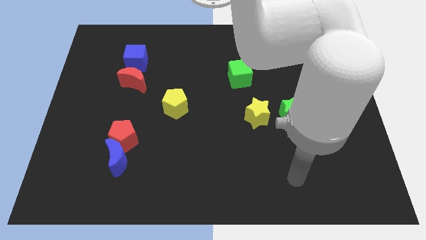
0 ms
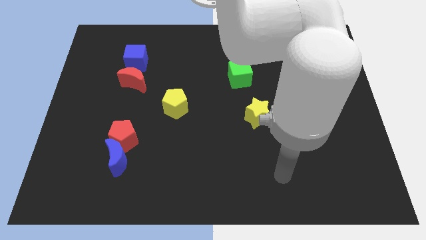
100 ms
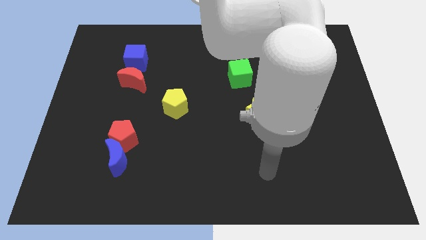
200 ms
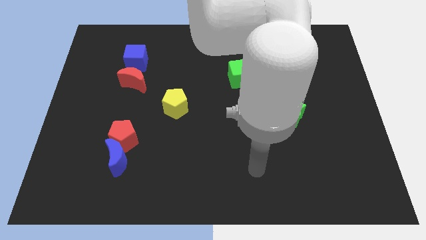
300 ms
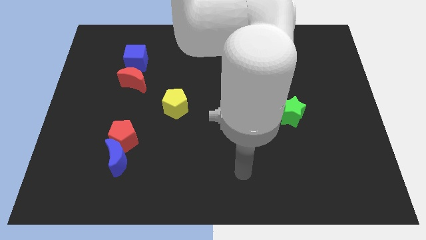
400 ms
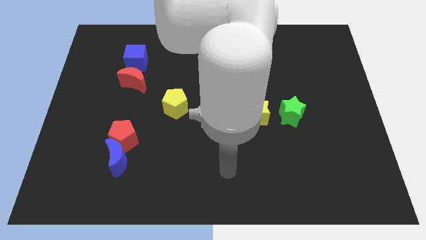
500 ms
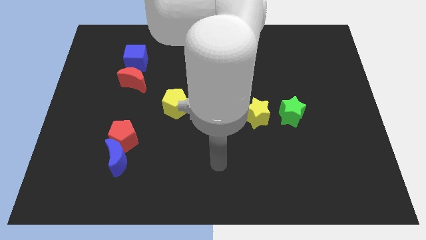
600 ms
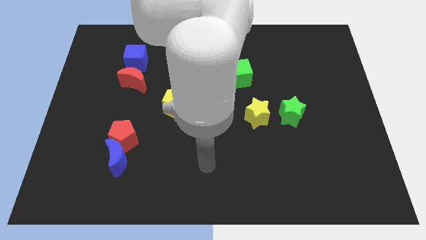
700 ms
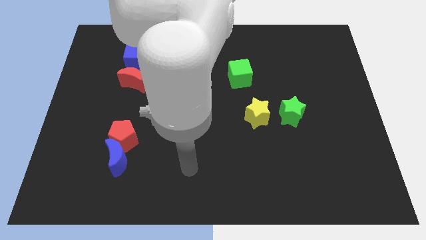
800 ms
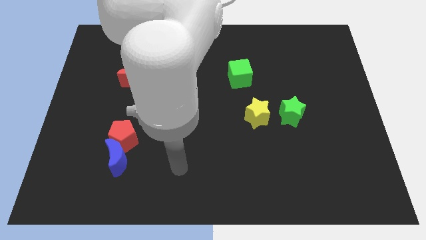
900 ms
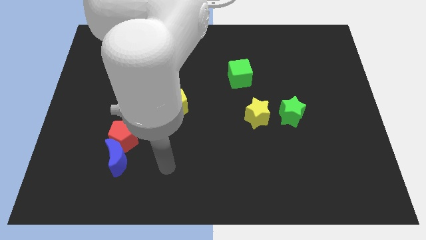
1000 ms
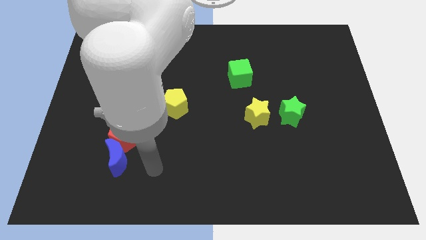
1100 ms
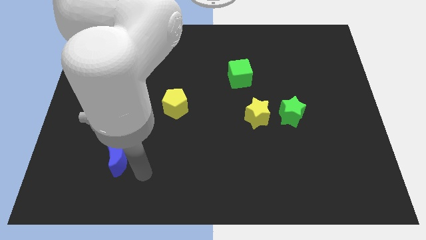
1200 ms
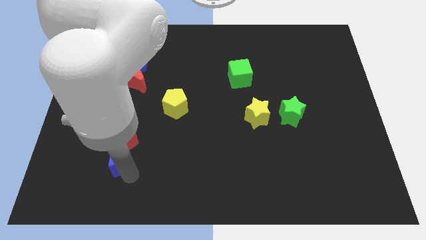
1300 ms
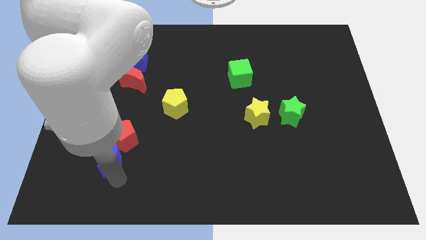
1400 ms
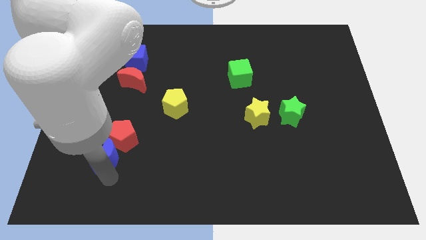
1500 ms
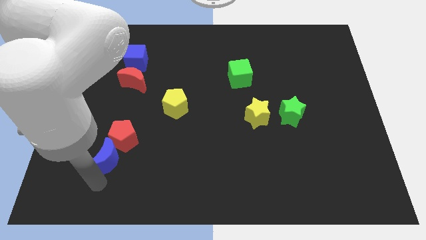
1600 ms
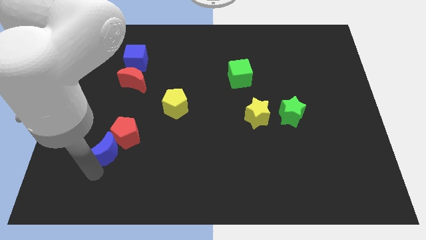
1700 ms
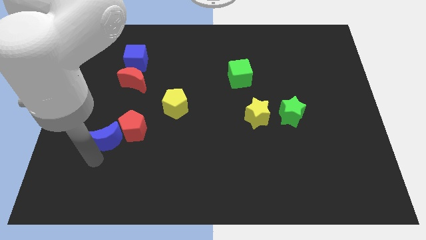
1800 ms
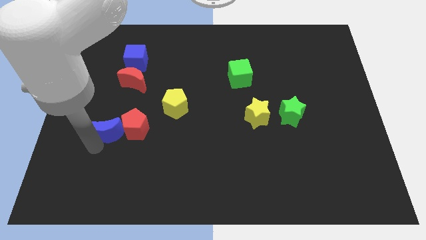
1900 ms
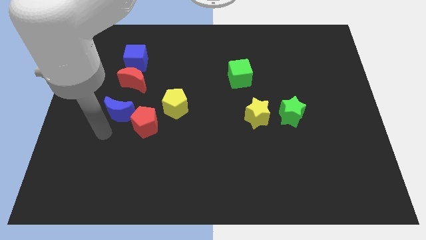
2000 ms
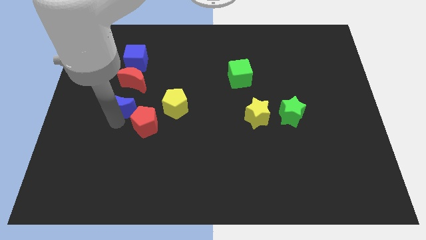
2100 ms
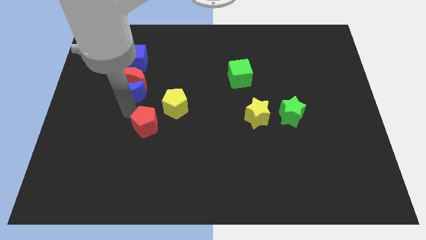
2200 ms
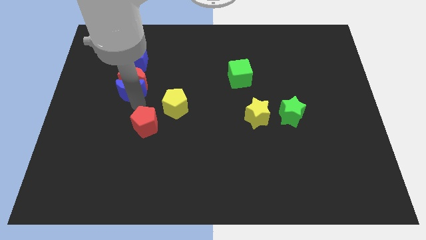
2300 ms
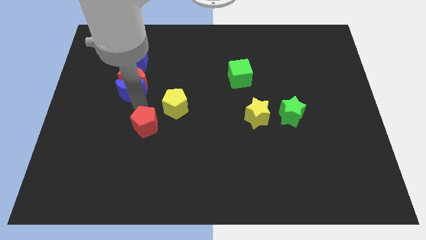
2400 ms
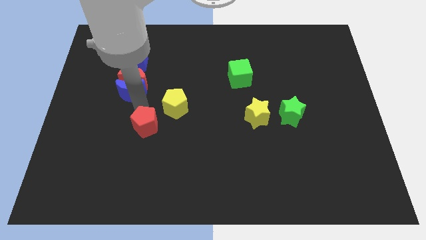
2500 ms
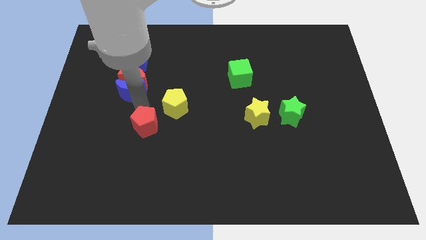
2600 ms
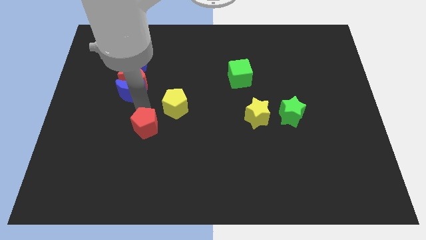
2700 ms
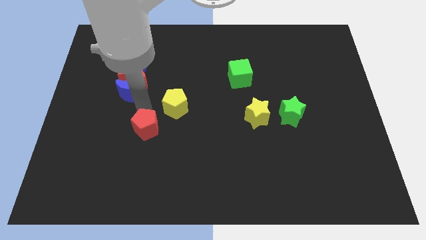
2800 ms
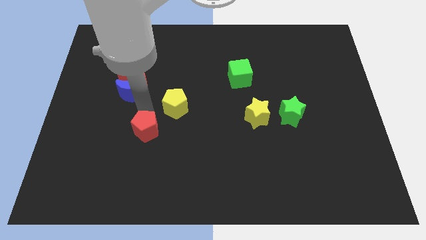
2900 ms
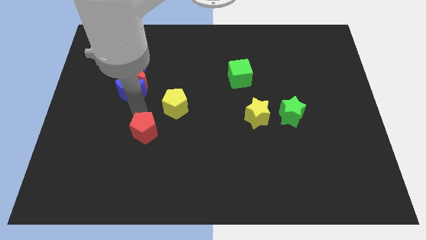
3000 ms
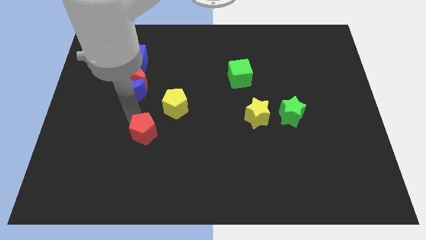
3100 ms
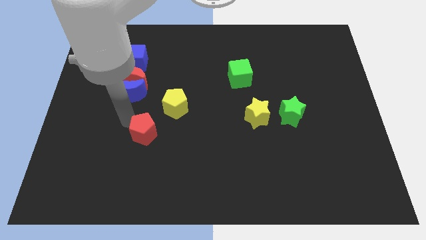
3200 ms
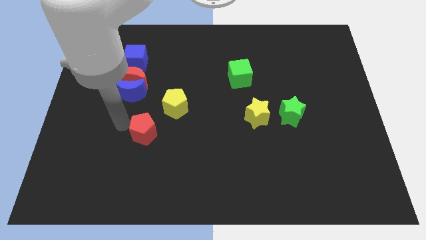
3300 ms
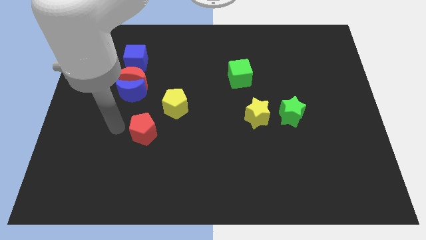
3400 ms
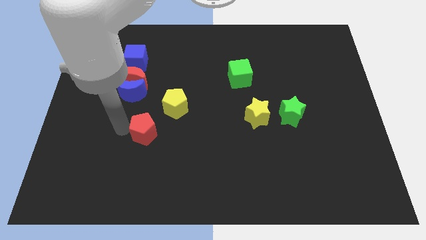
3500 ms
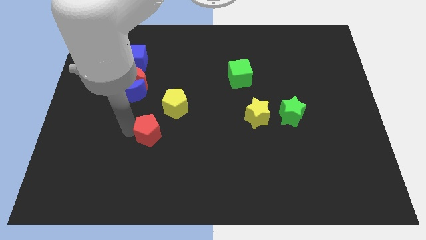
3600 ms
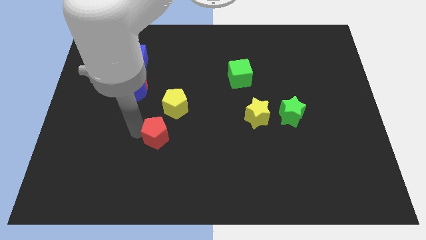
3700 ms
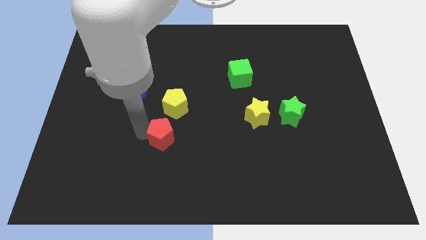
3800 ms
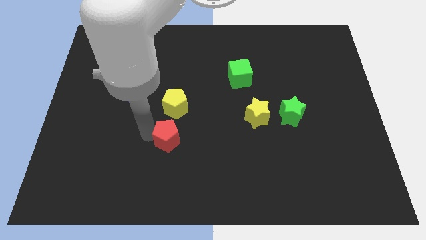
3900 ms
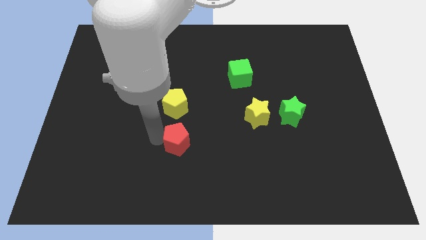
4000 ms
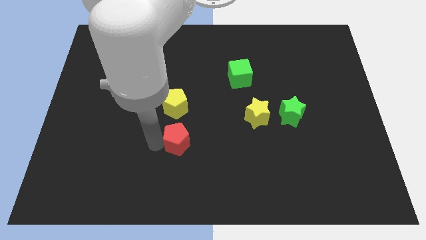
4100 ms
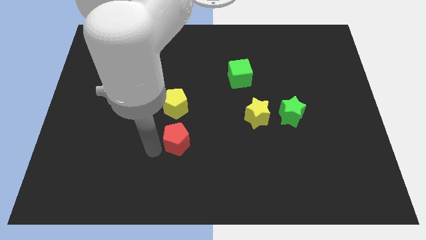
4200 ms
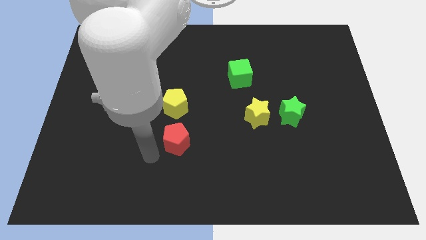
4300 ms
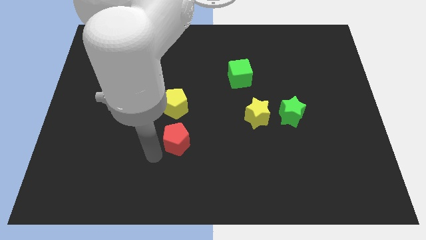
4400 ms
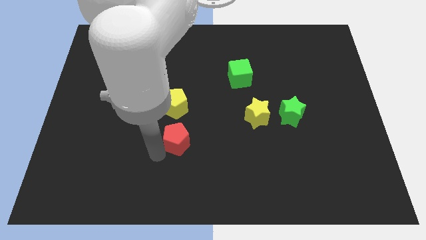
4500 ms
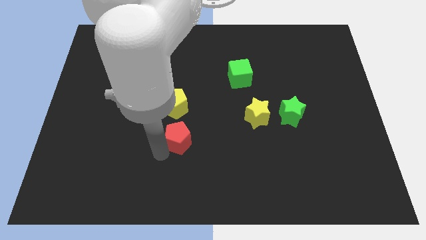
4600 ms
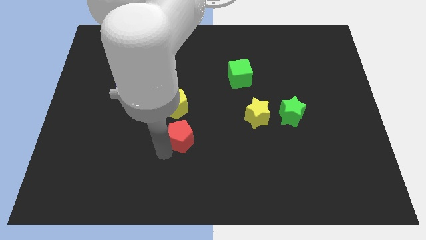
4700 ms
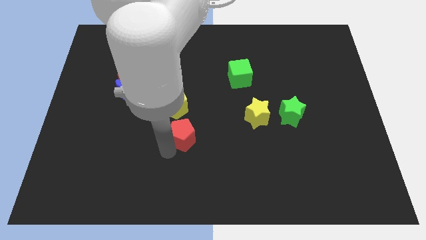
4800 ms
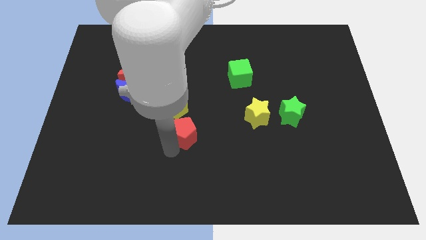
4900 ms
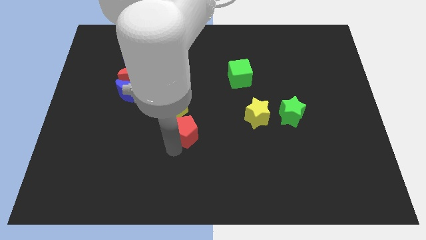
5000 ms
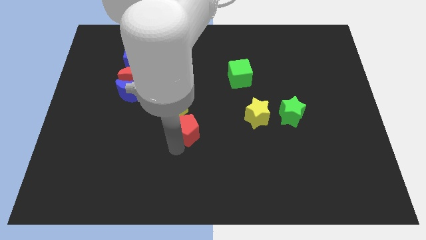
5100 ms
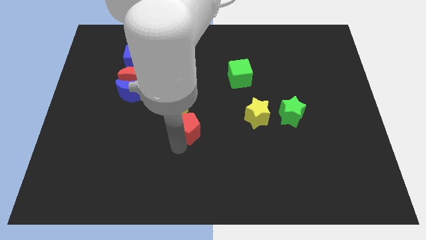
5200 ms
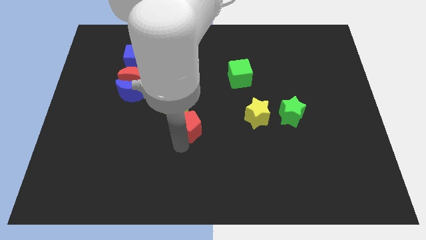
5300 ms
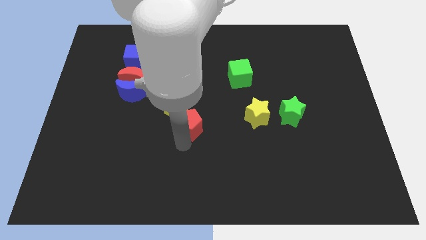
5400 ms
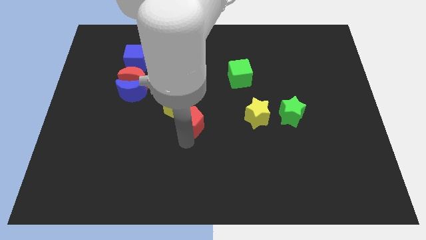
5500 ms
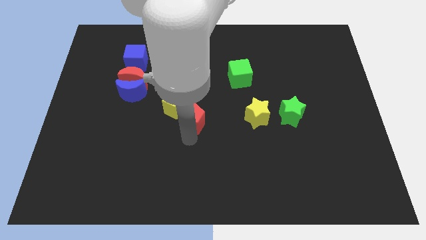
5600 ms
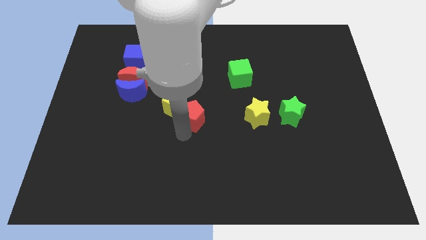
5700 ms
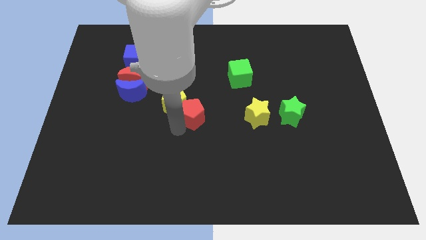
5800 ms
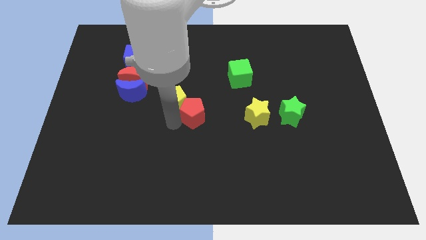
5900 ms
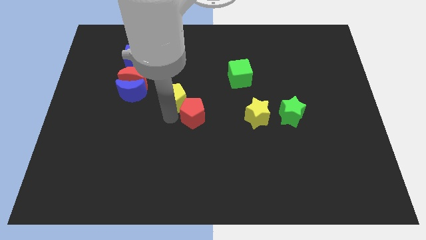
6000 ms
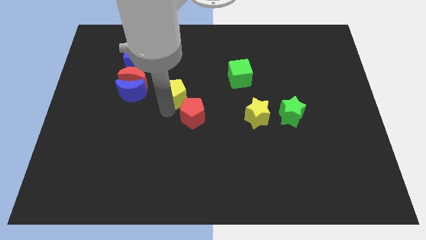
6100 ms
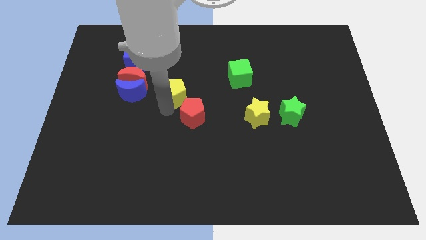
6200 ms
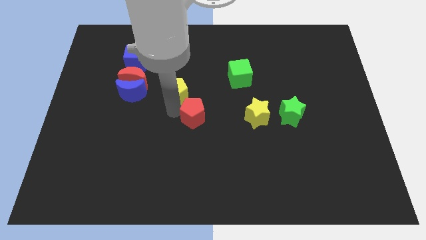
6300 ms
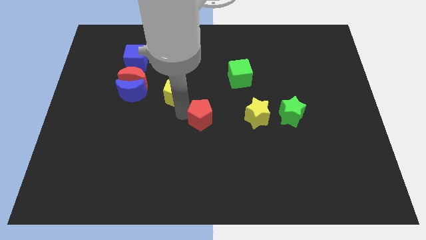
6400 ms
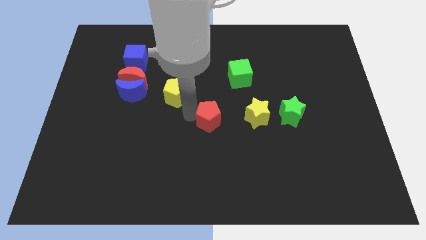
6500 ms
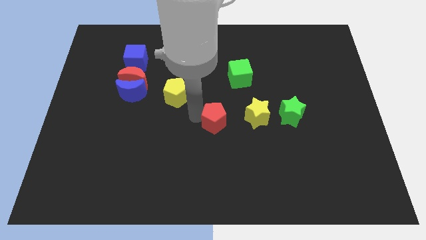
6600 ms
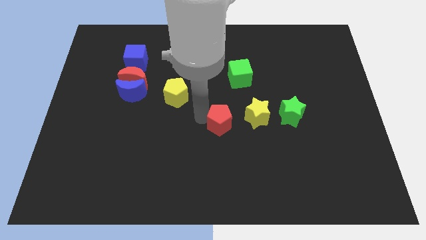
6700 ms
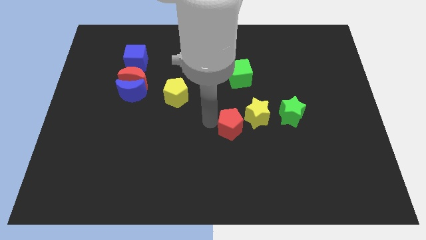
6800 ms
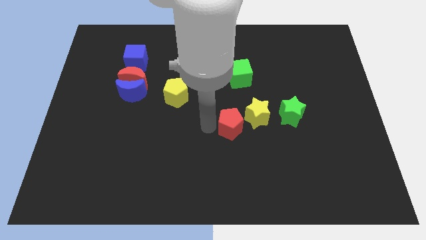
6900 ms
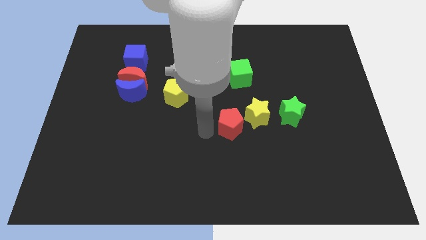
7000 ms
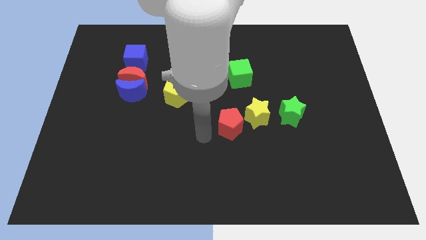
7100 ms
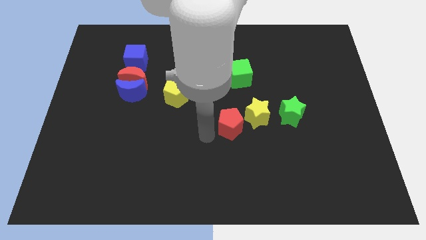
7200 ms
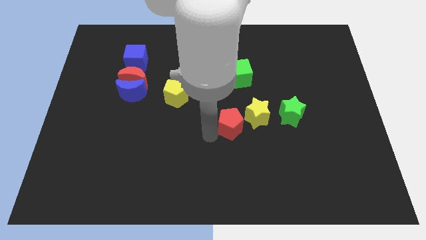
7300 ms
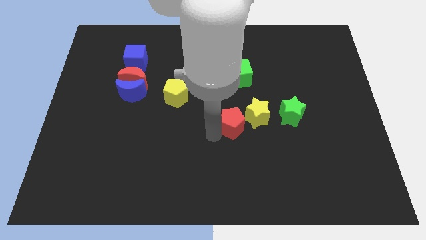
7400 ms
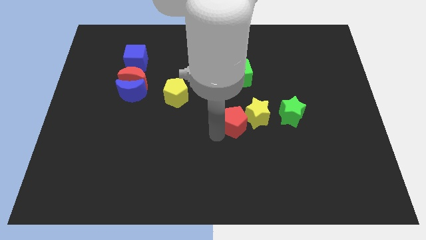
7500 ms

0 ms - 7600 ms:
put the red pentagon next to the yellow star

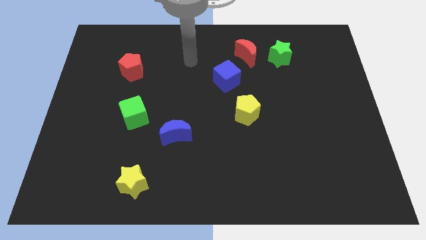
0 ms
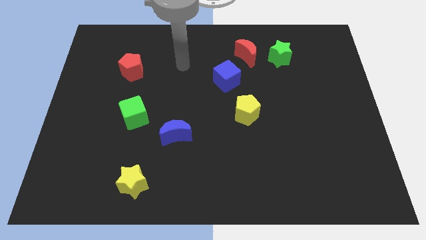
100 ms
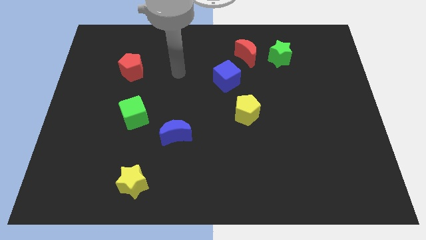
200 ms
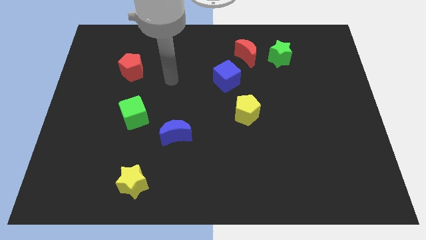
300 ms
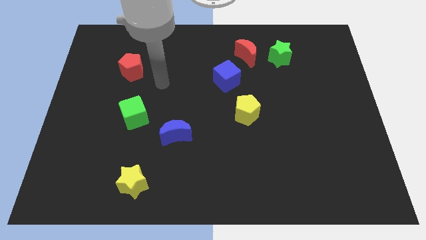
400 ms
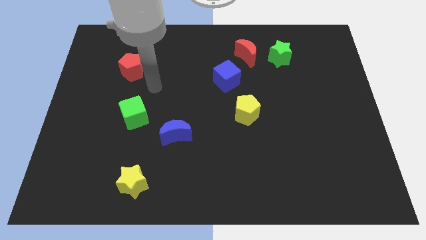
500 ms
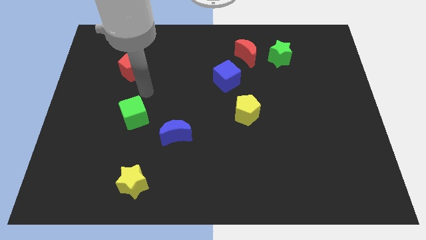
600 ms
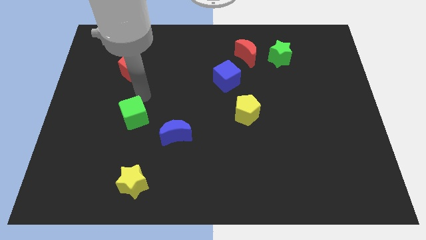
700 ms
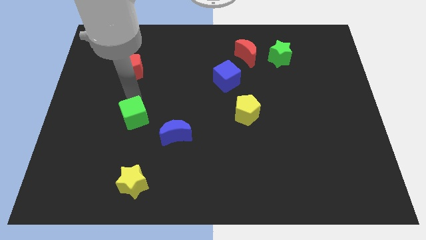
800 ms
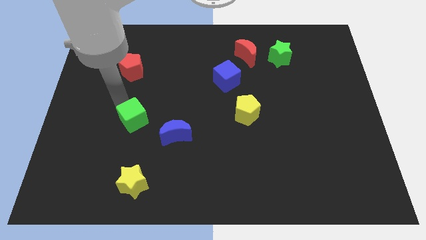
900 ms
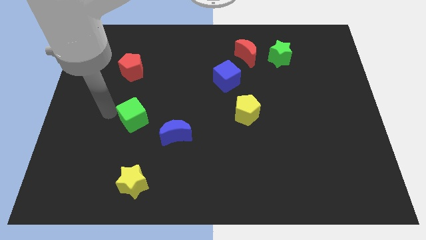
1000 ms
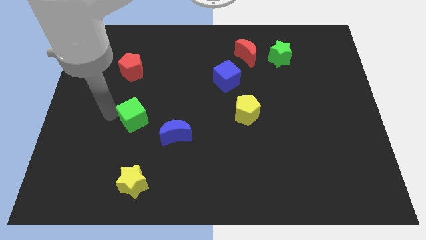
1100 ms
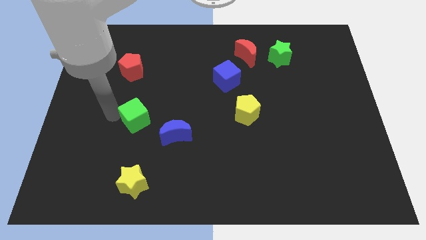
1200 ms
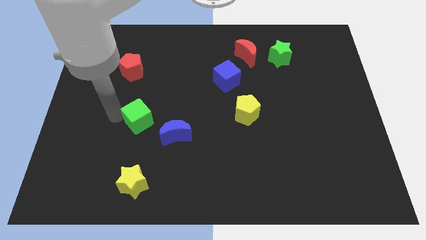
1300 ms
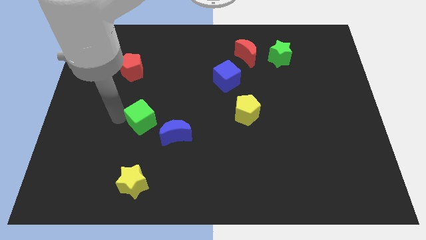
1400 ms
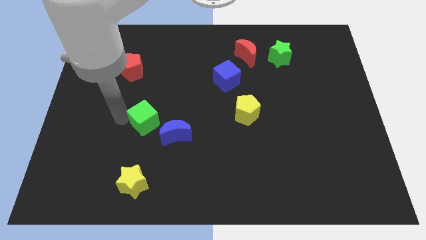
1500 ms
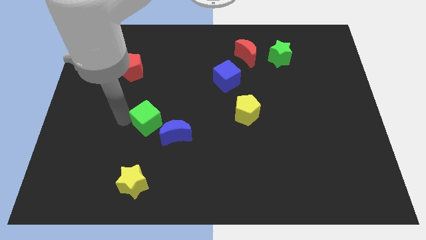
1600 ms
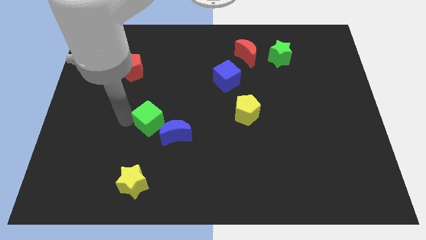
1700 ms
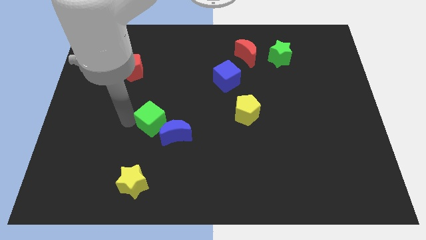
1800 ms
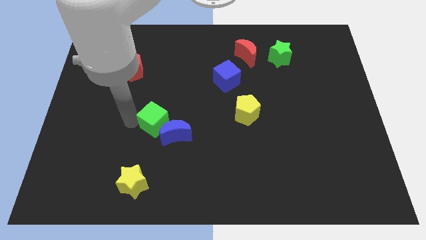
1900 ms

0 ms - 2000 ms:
move the green cube to the blue moon
